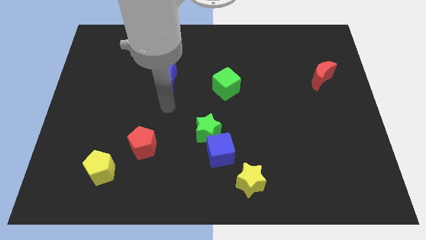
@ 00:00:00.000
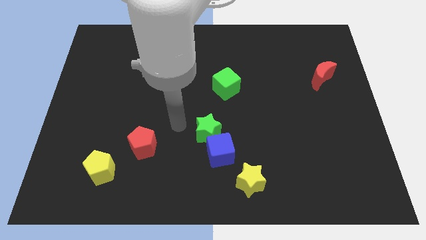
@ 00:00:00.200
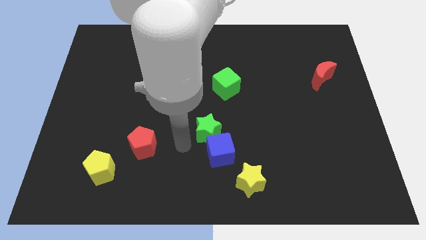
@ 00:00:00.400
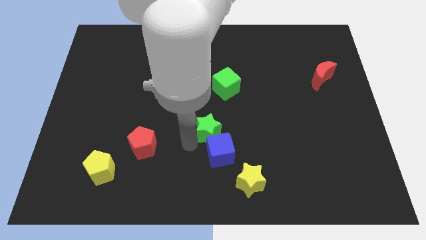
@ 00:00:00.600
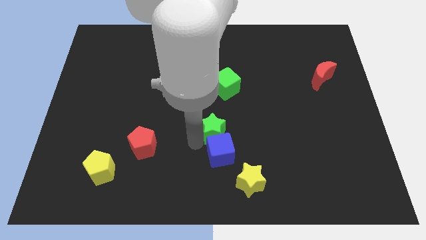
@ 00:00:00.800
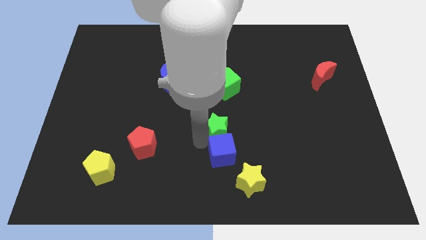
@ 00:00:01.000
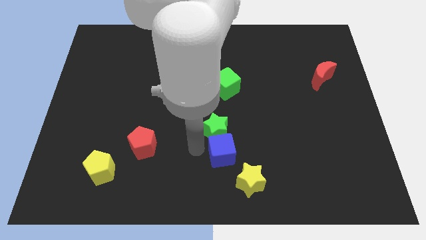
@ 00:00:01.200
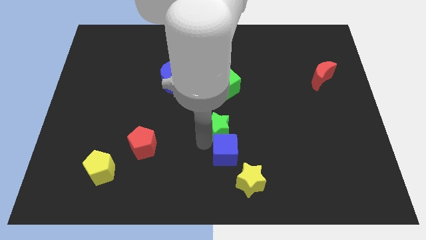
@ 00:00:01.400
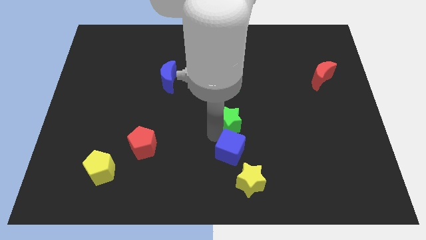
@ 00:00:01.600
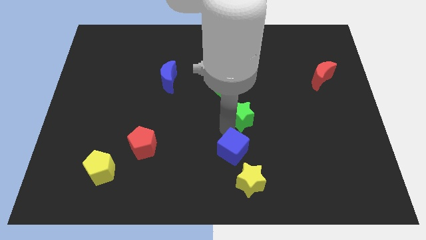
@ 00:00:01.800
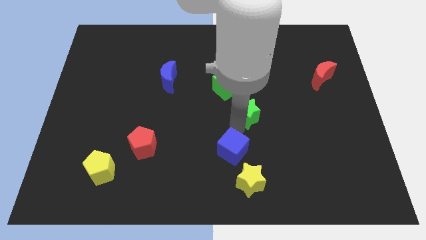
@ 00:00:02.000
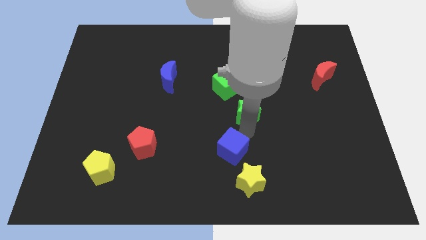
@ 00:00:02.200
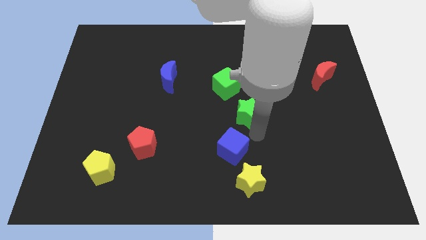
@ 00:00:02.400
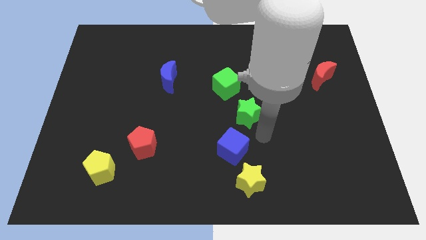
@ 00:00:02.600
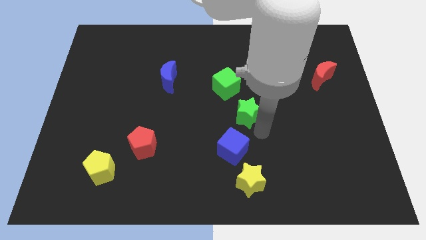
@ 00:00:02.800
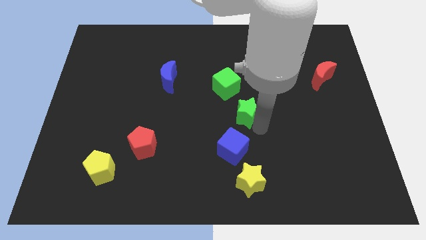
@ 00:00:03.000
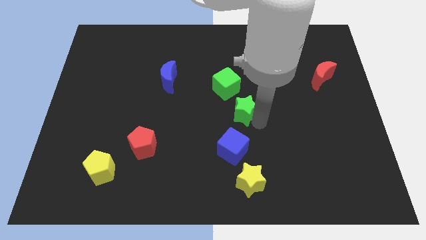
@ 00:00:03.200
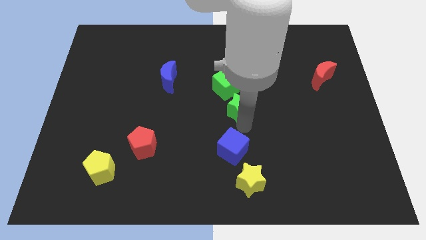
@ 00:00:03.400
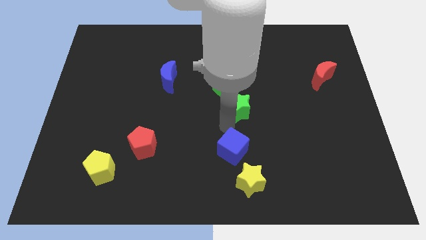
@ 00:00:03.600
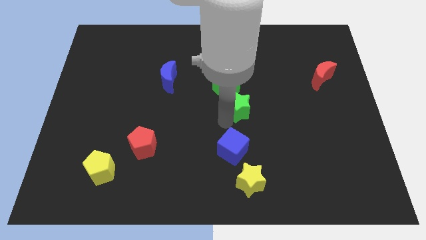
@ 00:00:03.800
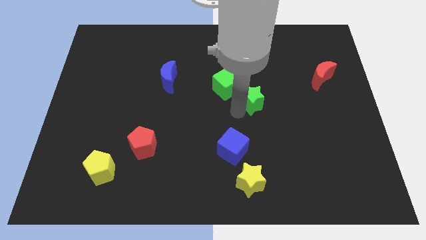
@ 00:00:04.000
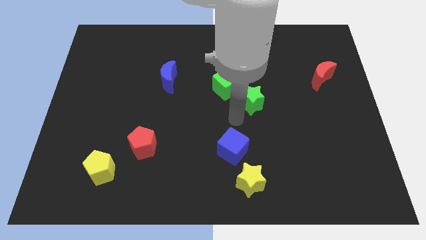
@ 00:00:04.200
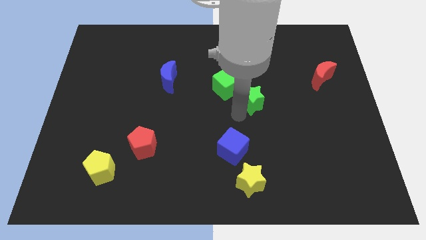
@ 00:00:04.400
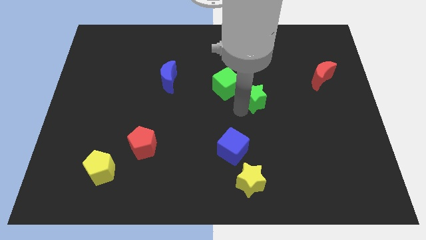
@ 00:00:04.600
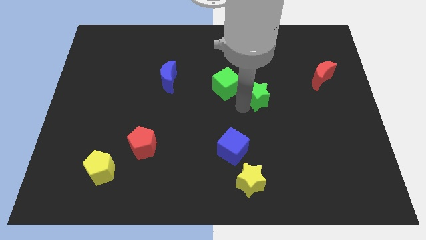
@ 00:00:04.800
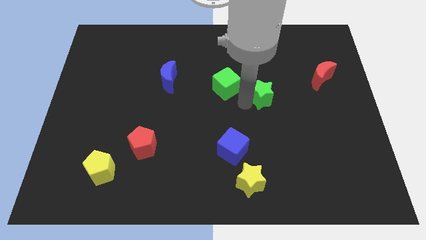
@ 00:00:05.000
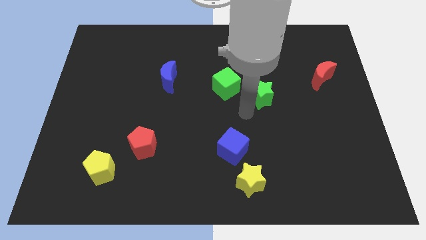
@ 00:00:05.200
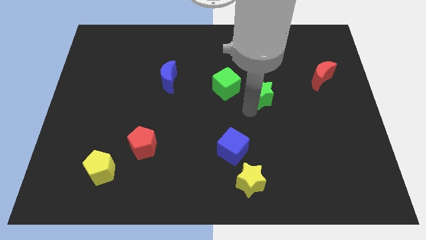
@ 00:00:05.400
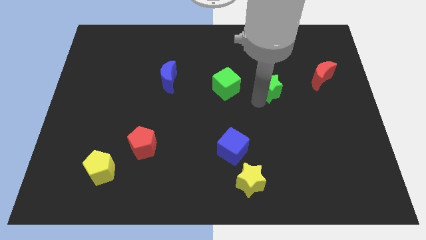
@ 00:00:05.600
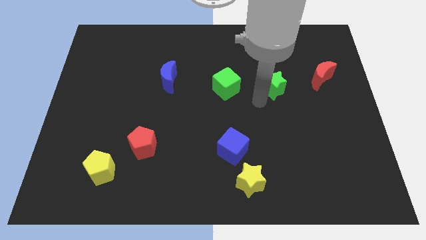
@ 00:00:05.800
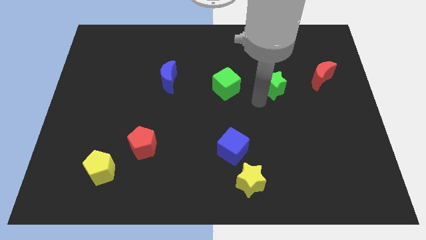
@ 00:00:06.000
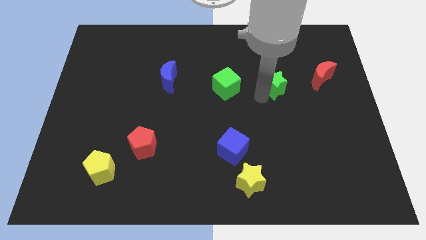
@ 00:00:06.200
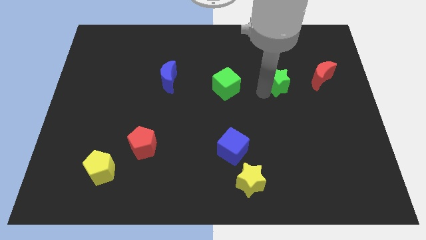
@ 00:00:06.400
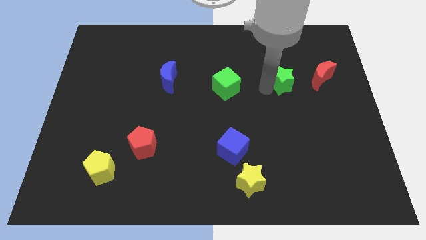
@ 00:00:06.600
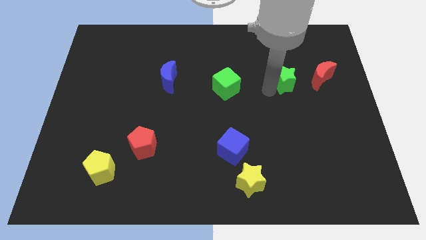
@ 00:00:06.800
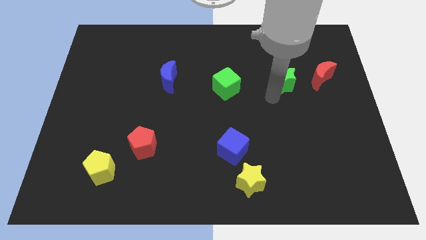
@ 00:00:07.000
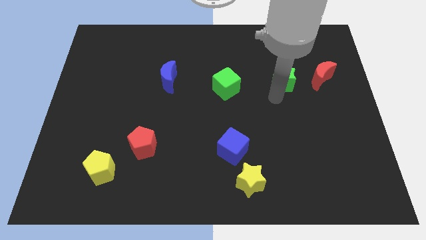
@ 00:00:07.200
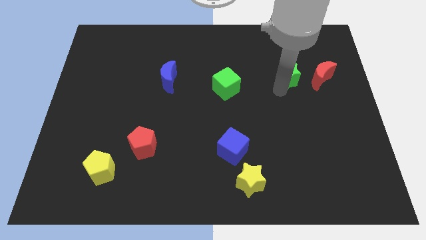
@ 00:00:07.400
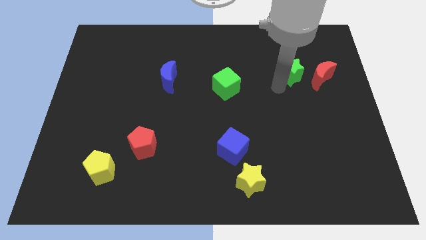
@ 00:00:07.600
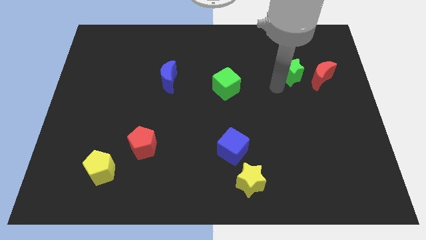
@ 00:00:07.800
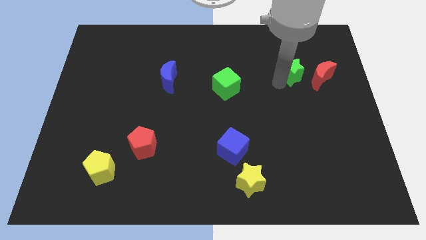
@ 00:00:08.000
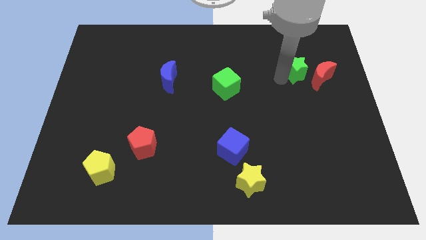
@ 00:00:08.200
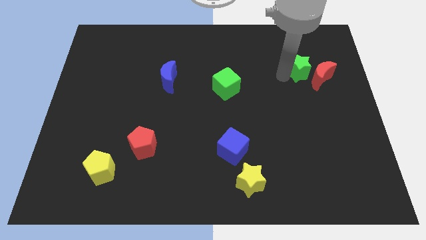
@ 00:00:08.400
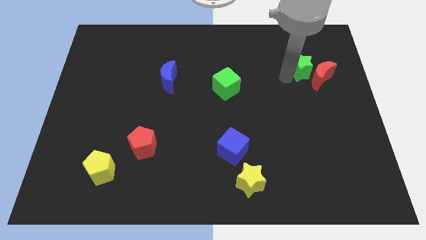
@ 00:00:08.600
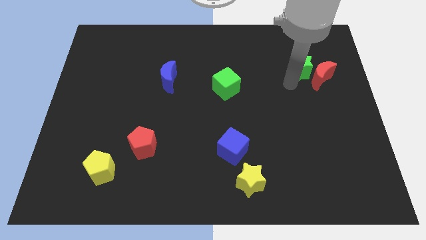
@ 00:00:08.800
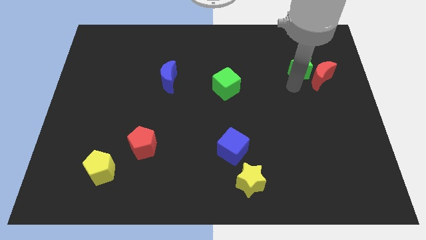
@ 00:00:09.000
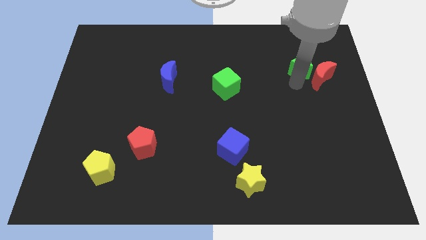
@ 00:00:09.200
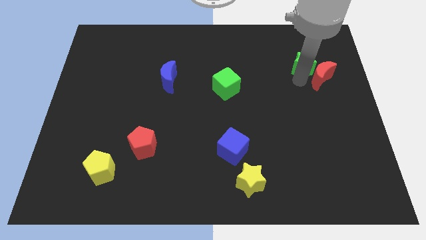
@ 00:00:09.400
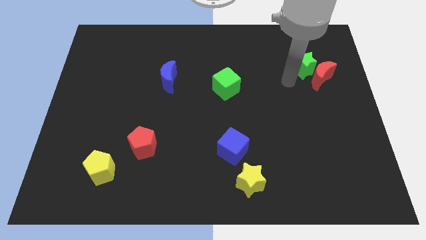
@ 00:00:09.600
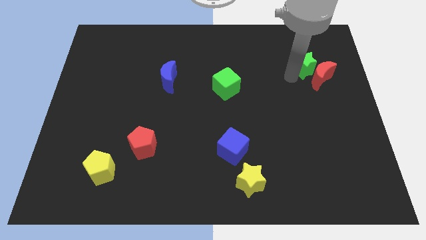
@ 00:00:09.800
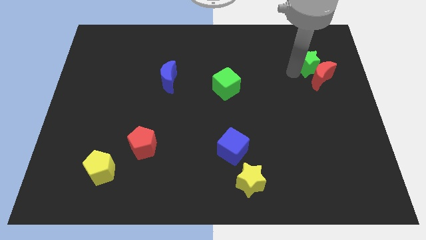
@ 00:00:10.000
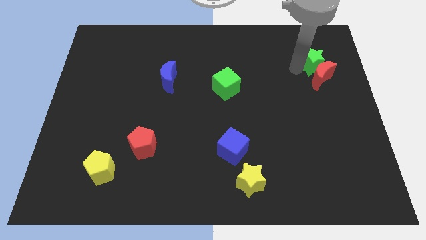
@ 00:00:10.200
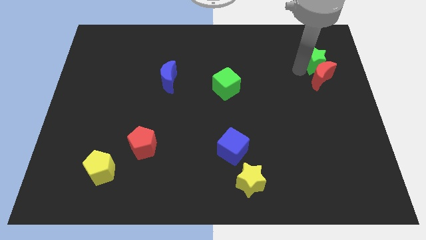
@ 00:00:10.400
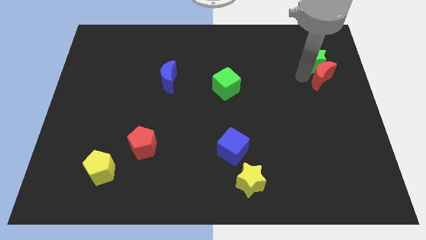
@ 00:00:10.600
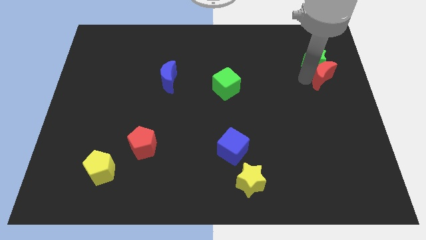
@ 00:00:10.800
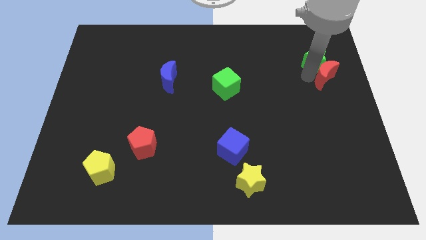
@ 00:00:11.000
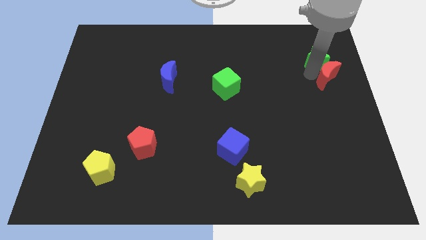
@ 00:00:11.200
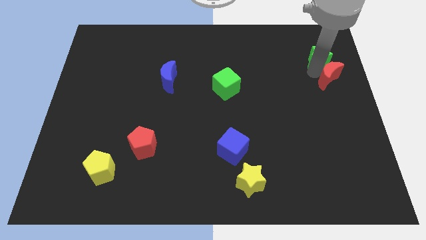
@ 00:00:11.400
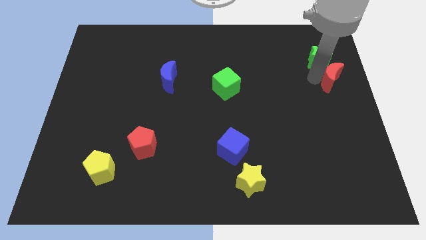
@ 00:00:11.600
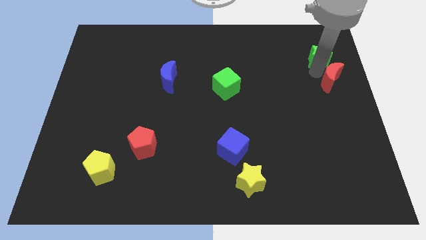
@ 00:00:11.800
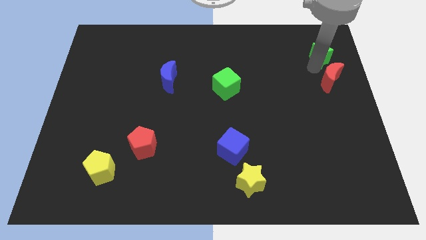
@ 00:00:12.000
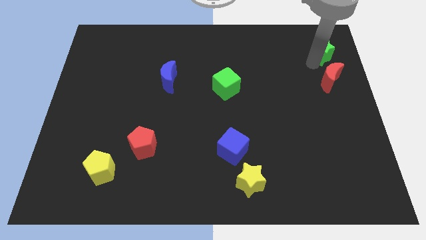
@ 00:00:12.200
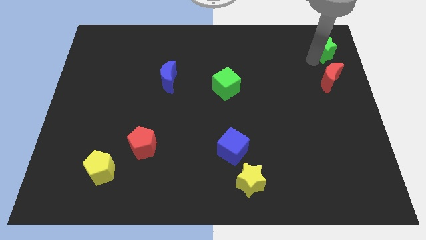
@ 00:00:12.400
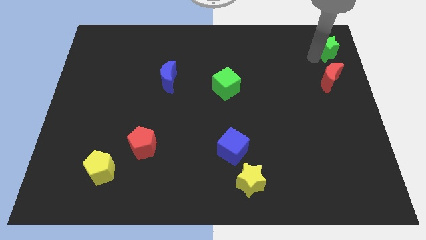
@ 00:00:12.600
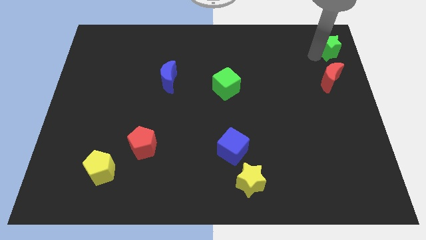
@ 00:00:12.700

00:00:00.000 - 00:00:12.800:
push the green star to the upper right corner
